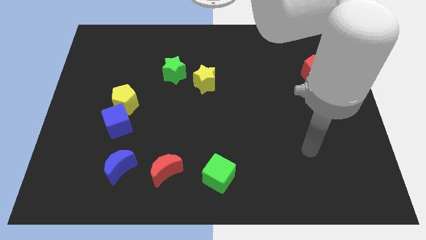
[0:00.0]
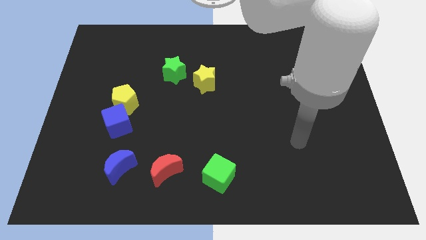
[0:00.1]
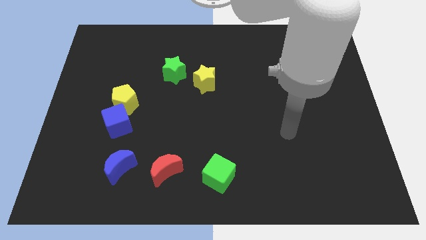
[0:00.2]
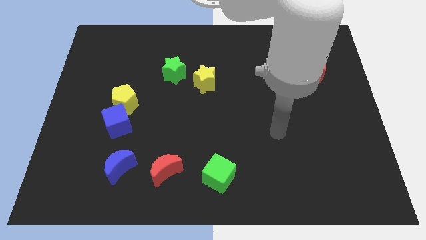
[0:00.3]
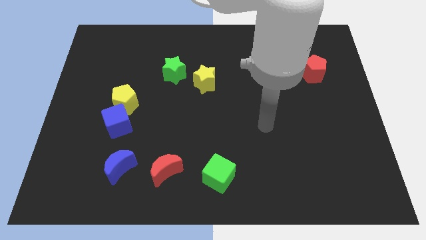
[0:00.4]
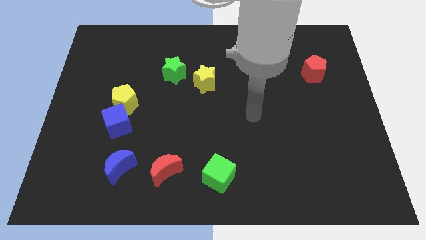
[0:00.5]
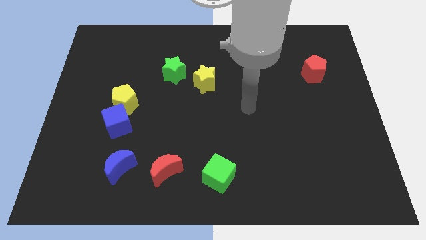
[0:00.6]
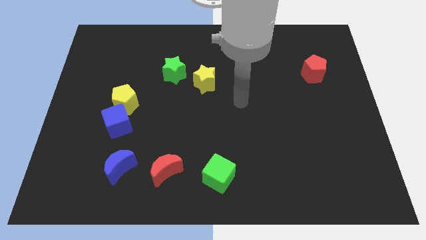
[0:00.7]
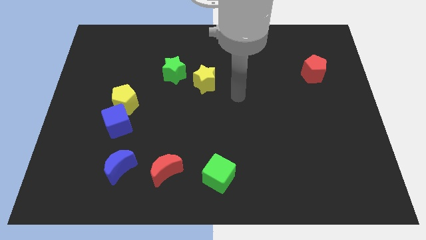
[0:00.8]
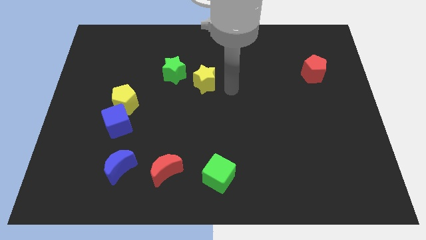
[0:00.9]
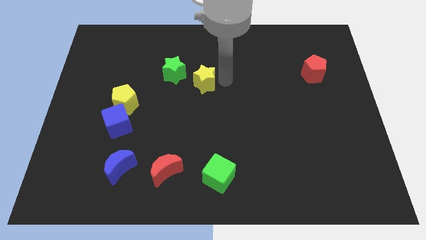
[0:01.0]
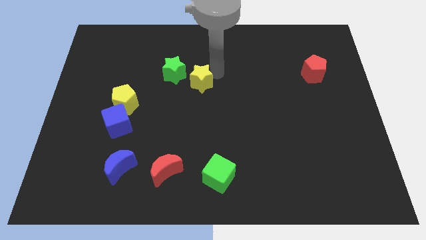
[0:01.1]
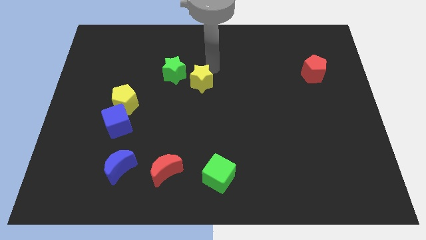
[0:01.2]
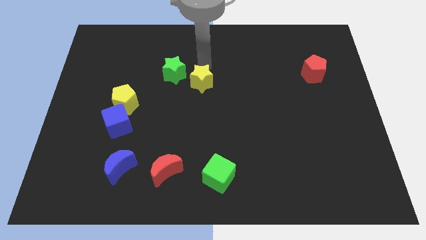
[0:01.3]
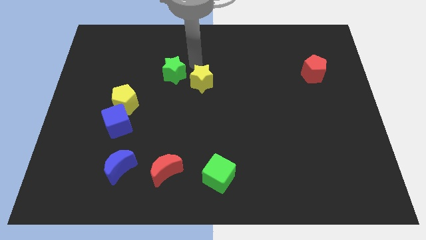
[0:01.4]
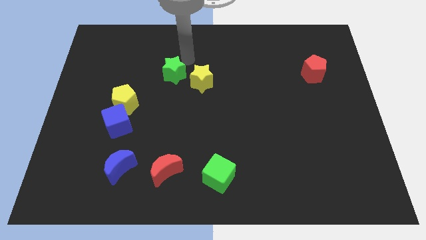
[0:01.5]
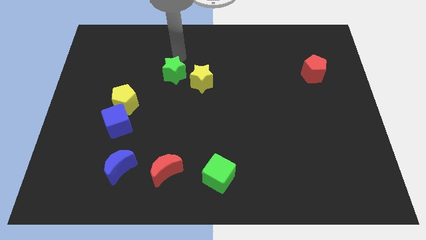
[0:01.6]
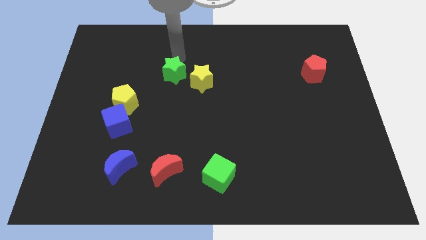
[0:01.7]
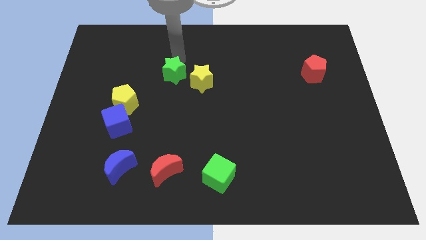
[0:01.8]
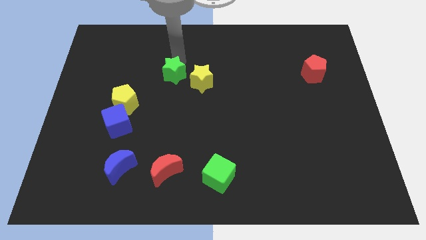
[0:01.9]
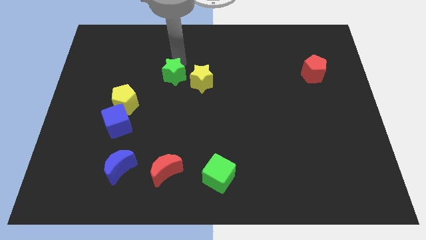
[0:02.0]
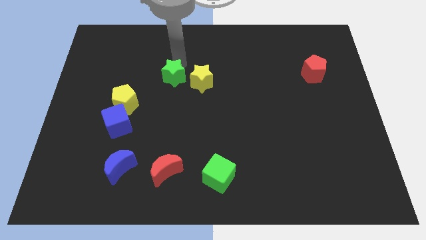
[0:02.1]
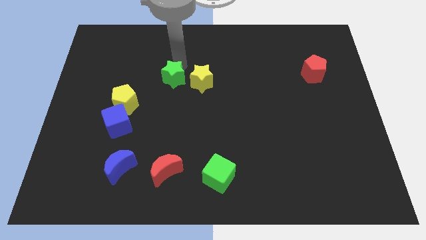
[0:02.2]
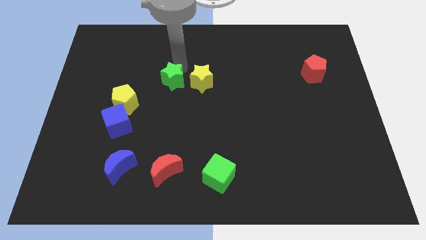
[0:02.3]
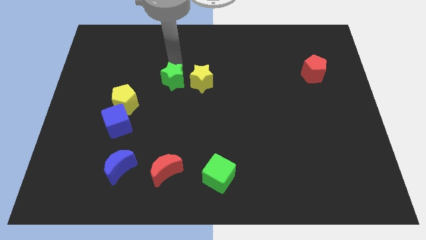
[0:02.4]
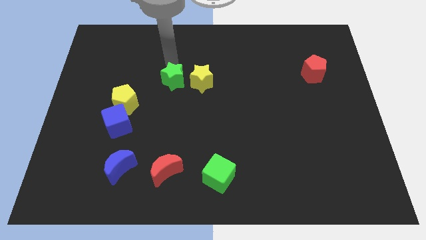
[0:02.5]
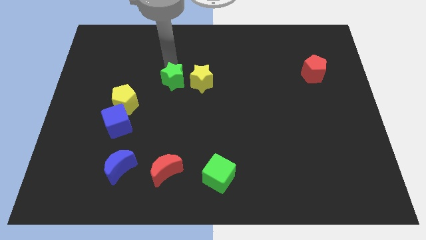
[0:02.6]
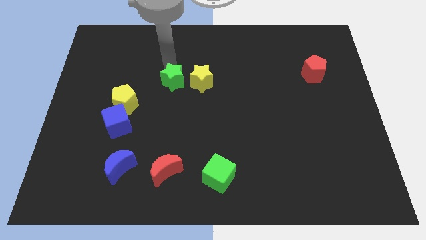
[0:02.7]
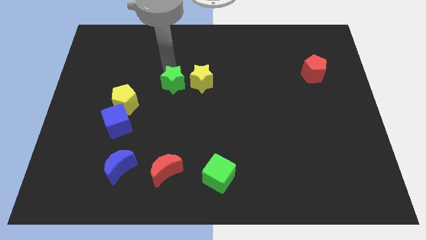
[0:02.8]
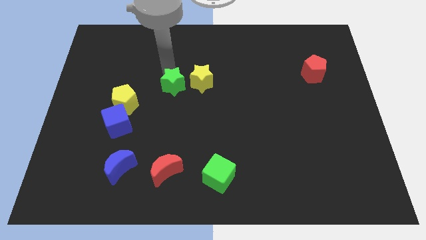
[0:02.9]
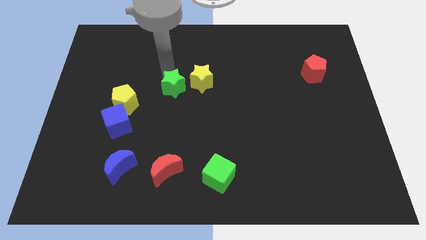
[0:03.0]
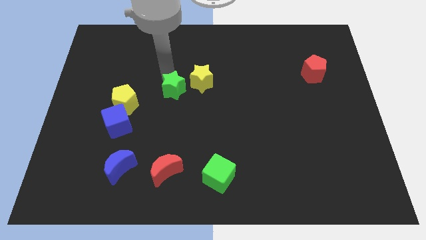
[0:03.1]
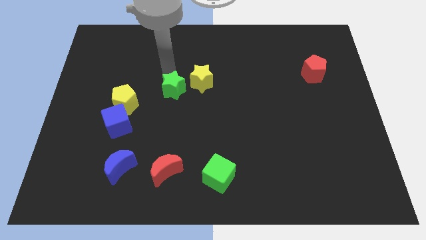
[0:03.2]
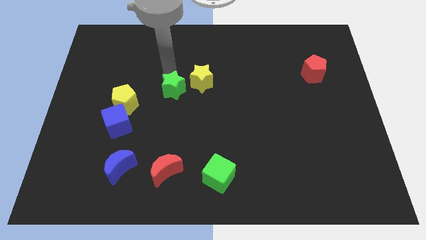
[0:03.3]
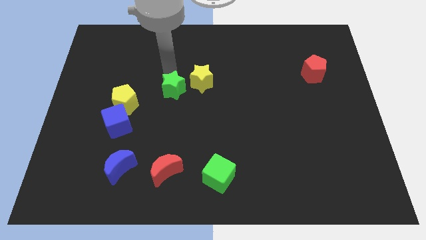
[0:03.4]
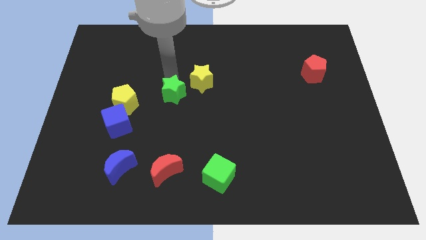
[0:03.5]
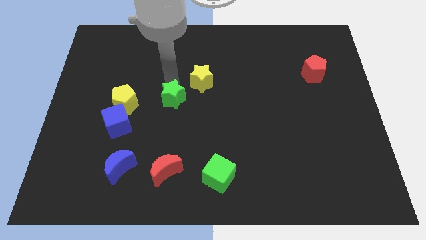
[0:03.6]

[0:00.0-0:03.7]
slide the green star down somewhat

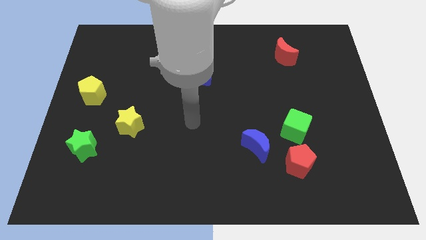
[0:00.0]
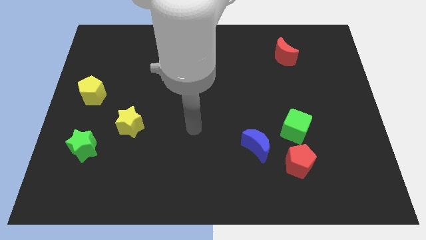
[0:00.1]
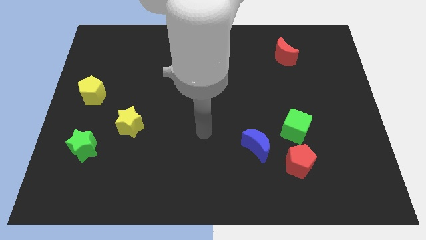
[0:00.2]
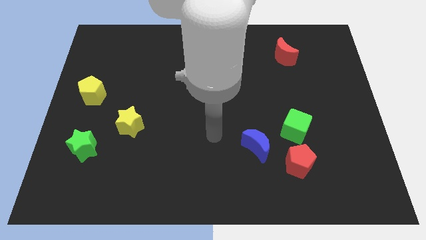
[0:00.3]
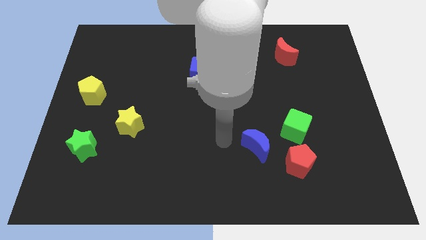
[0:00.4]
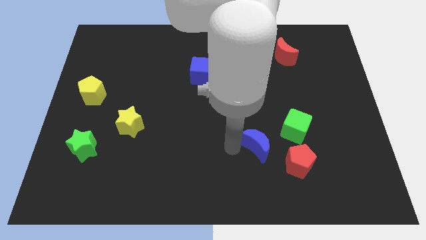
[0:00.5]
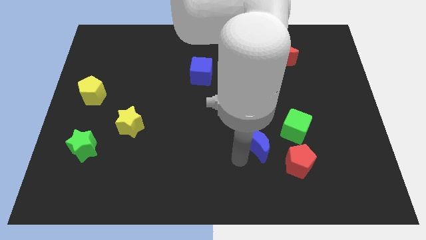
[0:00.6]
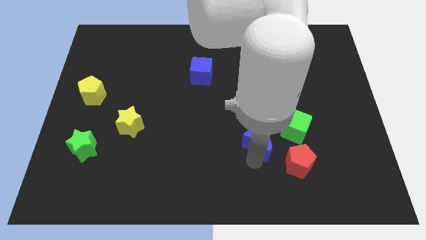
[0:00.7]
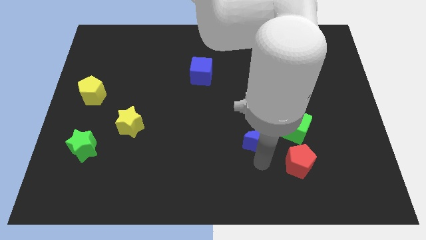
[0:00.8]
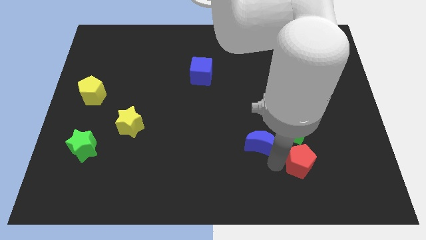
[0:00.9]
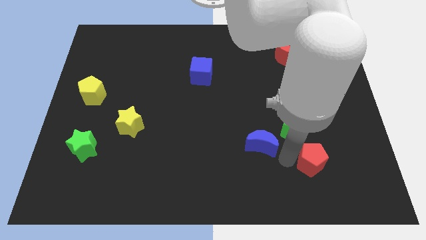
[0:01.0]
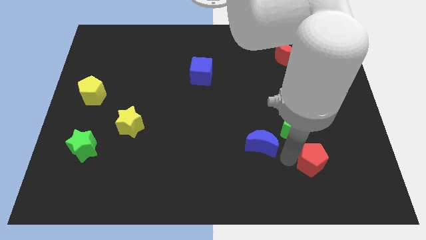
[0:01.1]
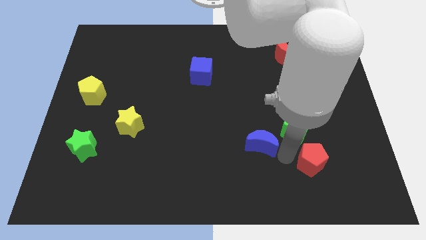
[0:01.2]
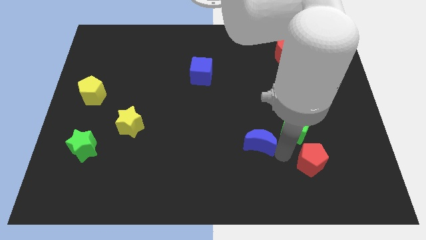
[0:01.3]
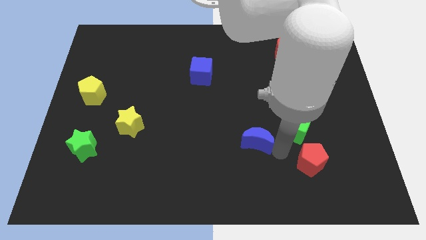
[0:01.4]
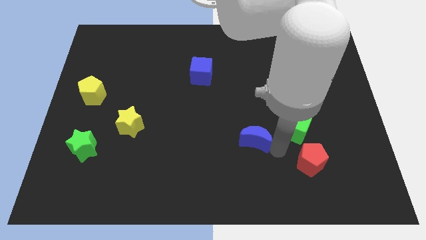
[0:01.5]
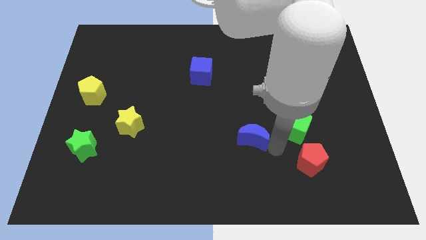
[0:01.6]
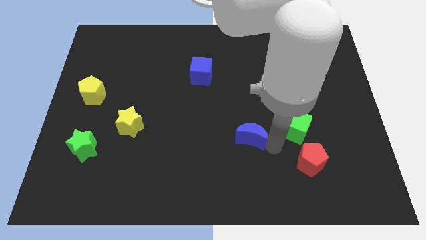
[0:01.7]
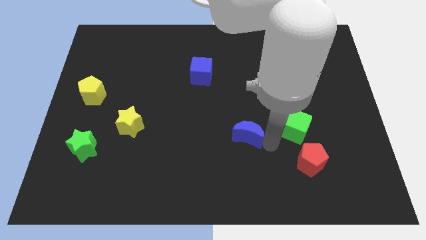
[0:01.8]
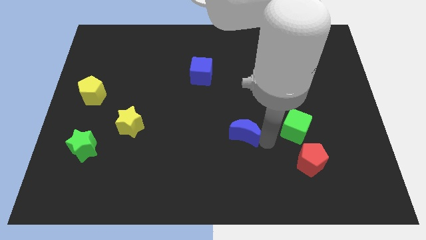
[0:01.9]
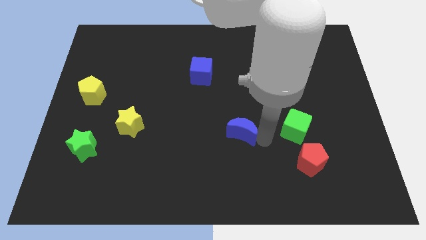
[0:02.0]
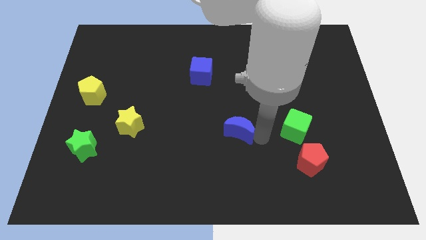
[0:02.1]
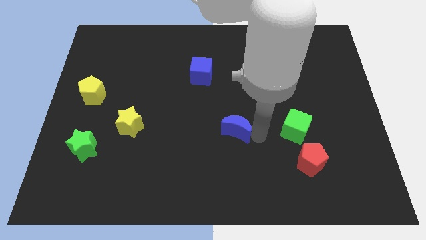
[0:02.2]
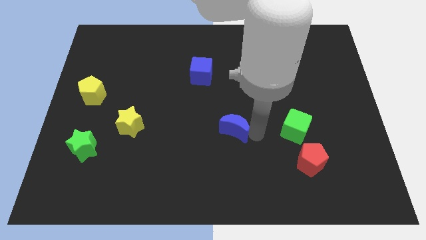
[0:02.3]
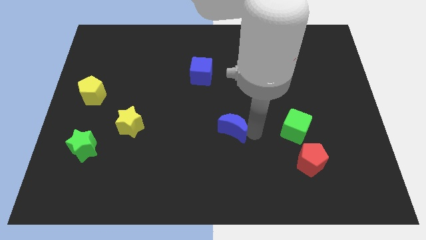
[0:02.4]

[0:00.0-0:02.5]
slide the blue moon a little bit up and left diagonally

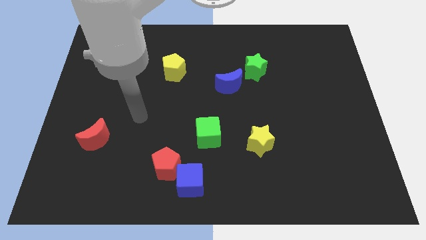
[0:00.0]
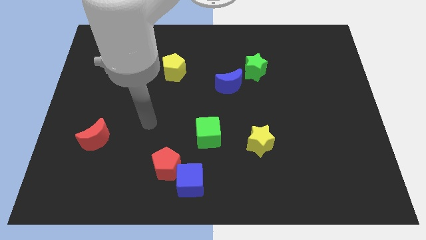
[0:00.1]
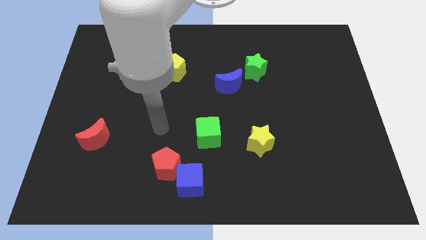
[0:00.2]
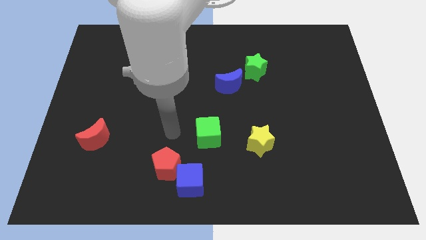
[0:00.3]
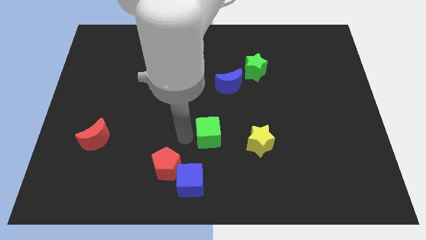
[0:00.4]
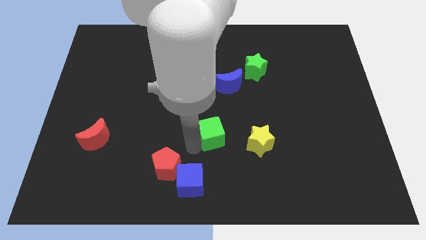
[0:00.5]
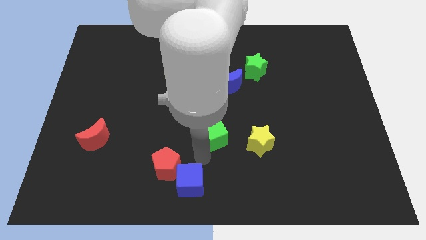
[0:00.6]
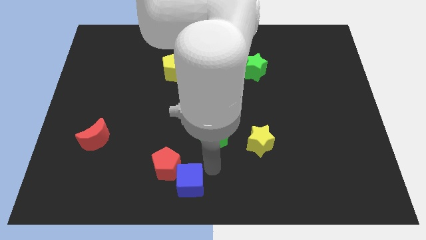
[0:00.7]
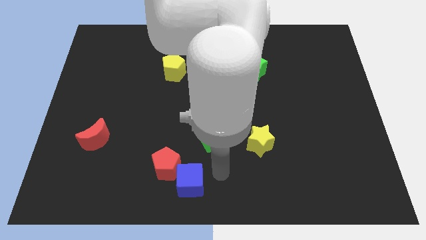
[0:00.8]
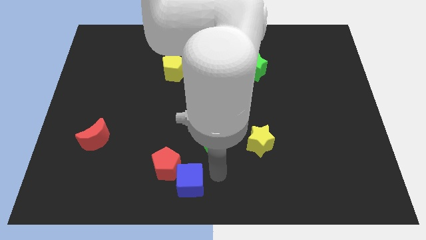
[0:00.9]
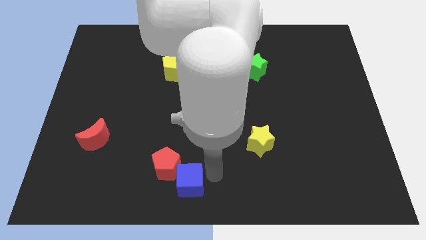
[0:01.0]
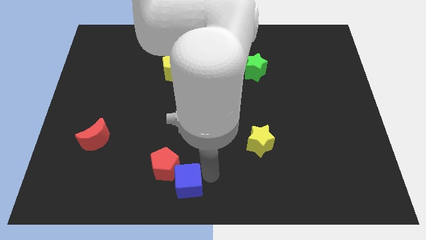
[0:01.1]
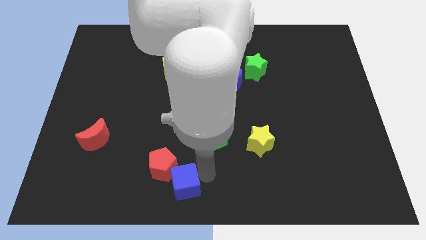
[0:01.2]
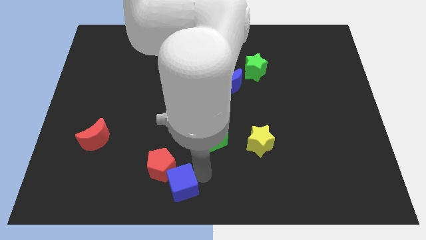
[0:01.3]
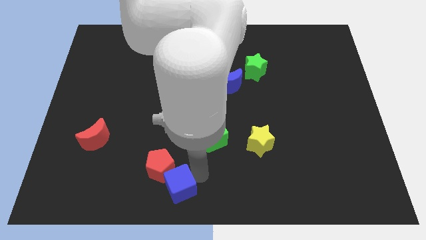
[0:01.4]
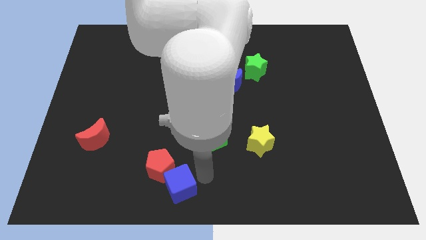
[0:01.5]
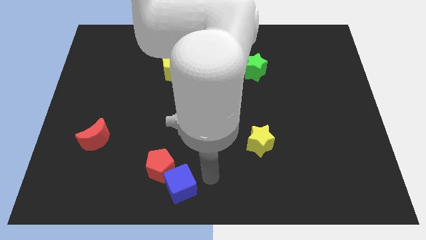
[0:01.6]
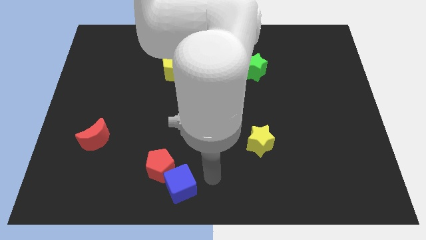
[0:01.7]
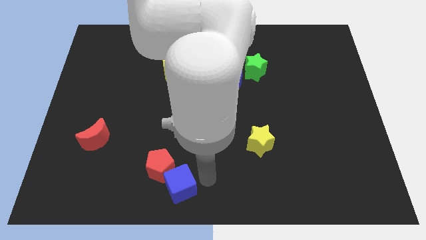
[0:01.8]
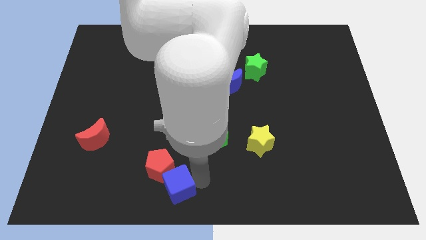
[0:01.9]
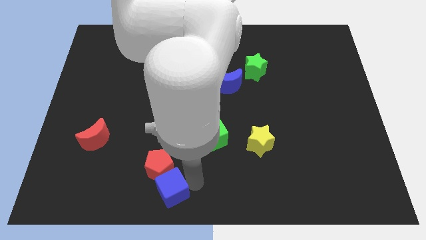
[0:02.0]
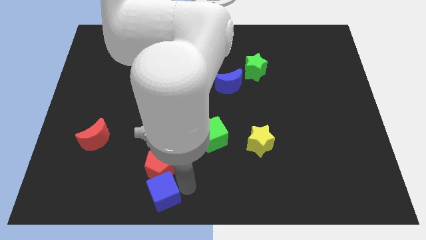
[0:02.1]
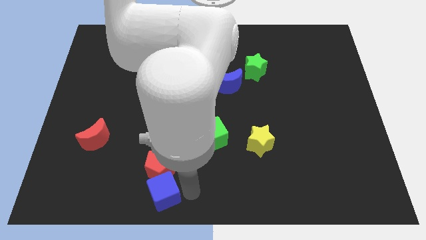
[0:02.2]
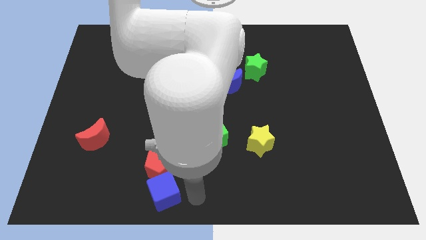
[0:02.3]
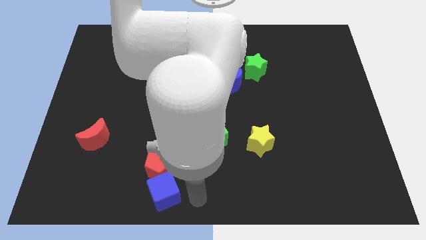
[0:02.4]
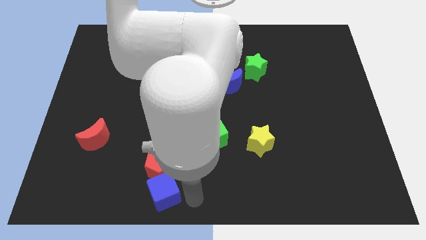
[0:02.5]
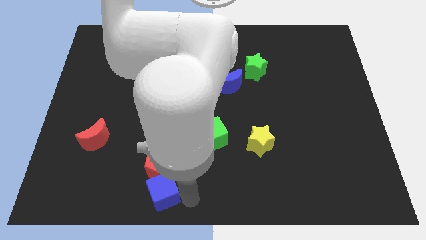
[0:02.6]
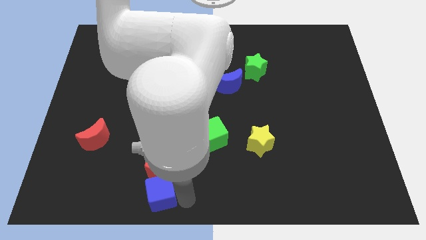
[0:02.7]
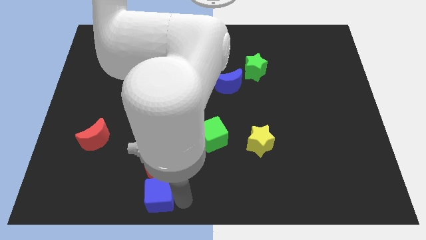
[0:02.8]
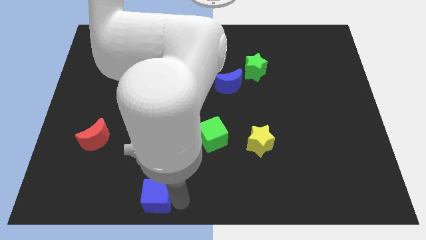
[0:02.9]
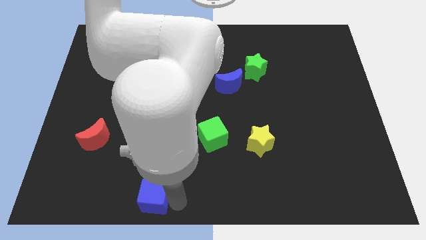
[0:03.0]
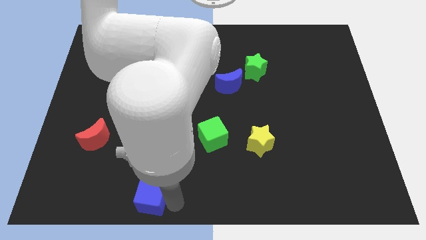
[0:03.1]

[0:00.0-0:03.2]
slide the blue cube a little bit left
